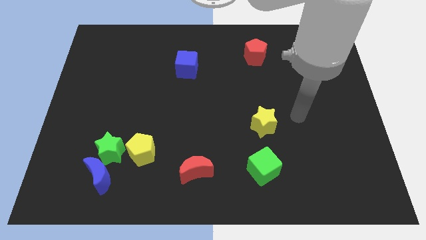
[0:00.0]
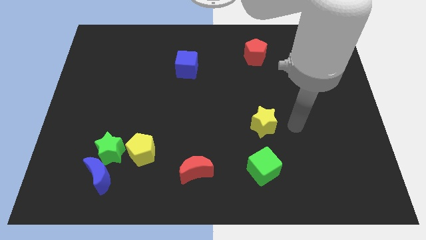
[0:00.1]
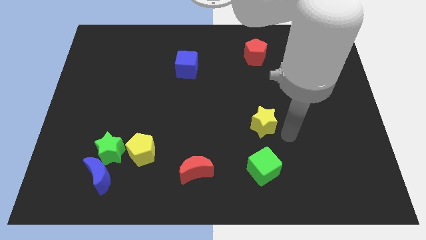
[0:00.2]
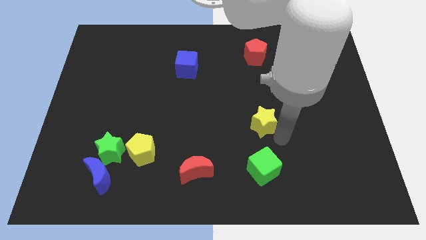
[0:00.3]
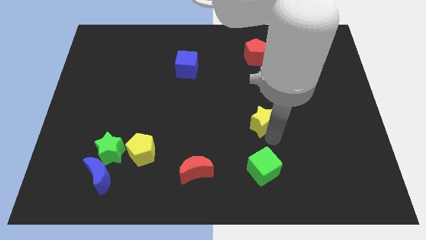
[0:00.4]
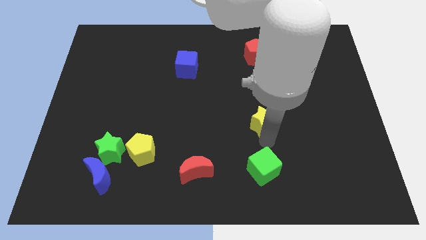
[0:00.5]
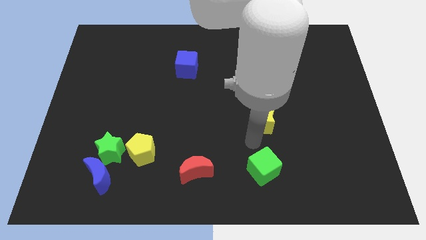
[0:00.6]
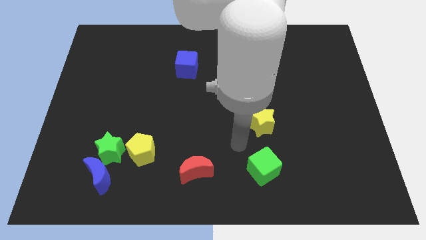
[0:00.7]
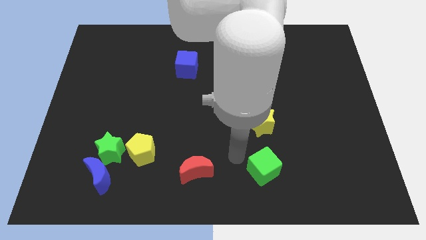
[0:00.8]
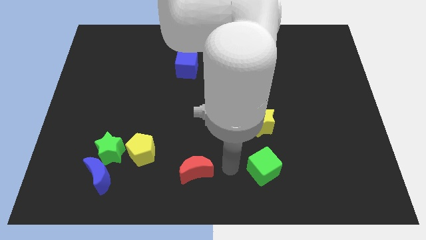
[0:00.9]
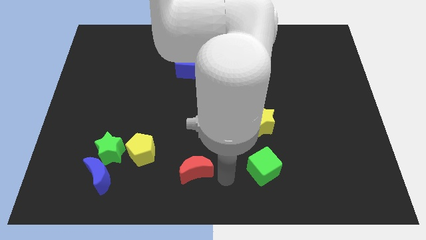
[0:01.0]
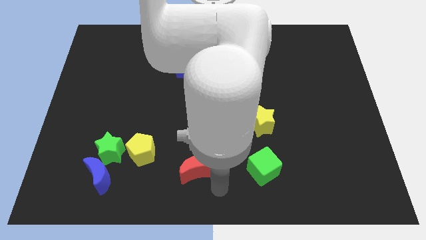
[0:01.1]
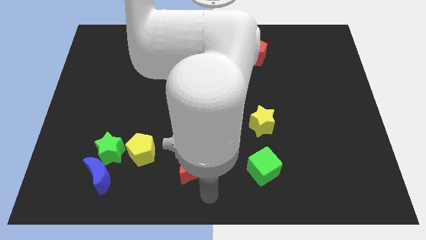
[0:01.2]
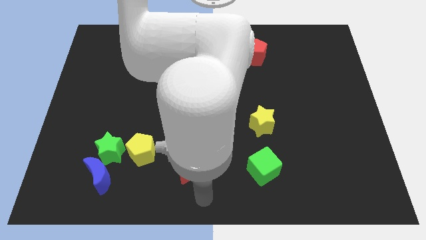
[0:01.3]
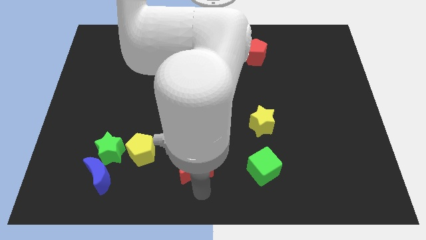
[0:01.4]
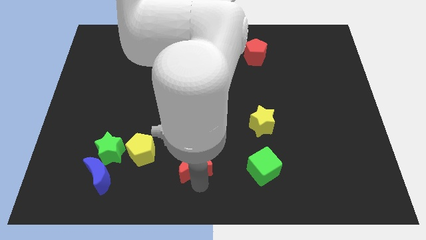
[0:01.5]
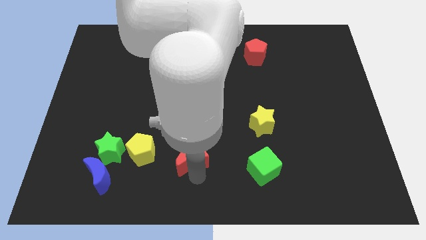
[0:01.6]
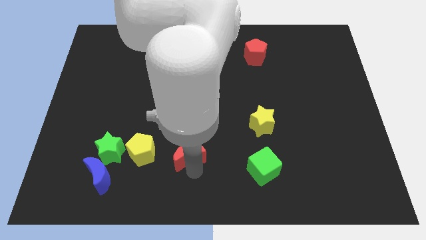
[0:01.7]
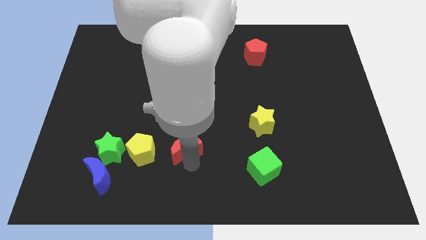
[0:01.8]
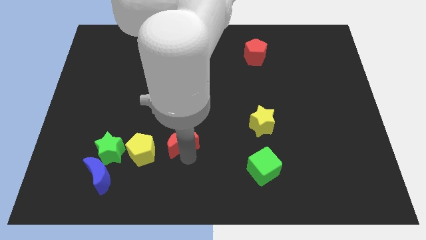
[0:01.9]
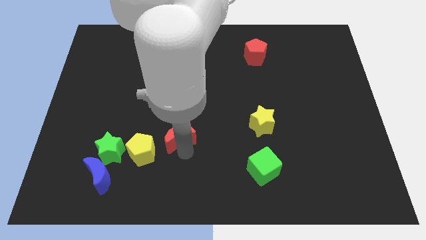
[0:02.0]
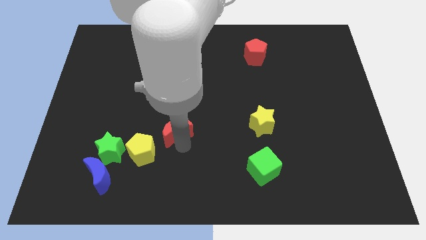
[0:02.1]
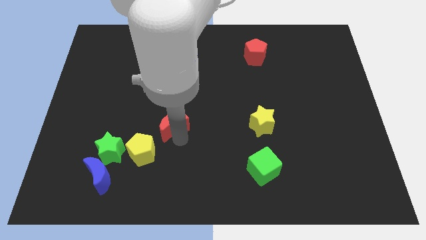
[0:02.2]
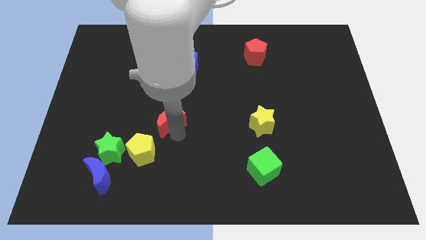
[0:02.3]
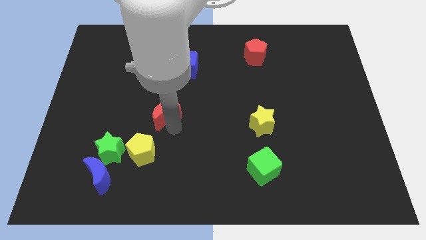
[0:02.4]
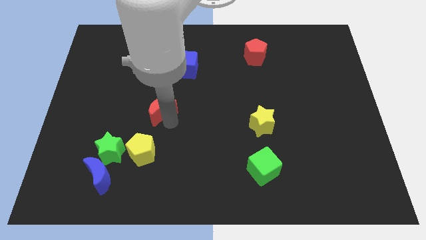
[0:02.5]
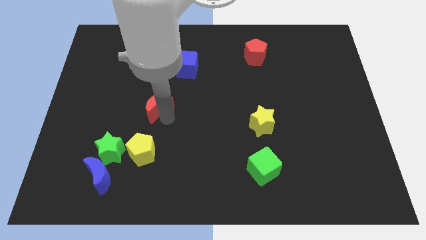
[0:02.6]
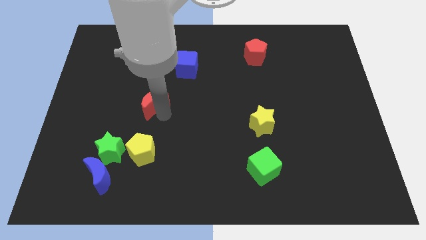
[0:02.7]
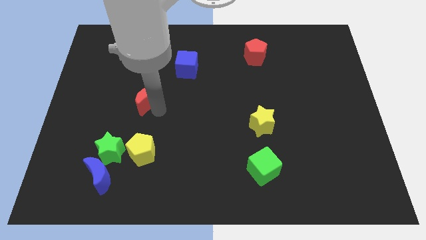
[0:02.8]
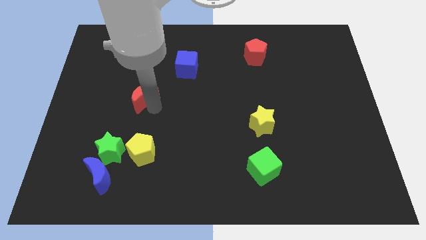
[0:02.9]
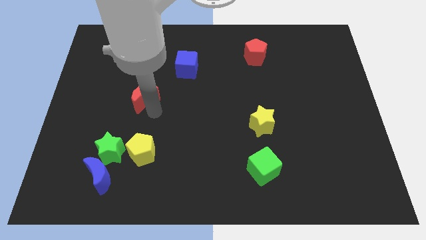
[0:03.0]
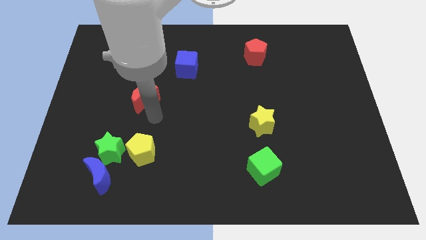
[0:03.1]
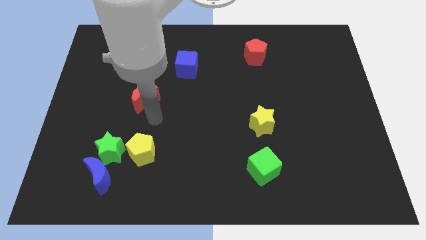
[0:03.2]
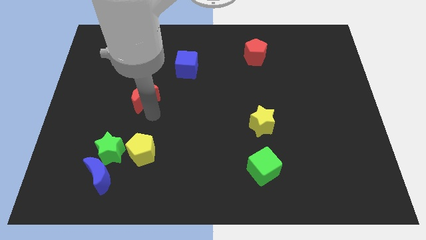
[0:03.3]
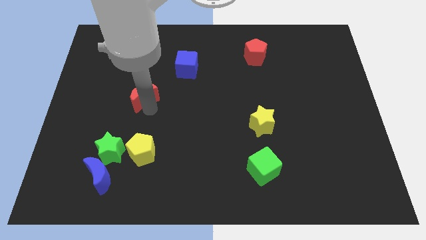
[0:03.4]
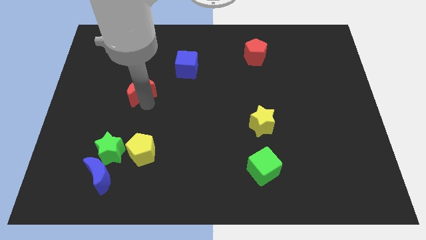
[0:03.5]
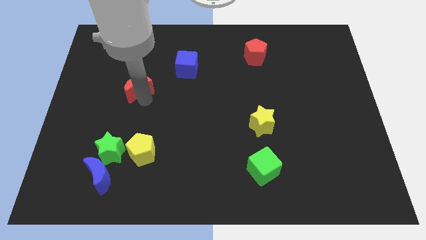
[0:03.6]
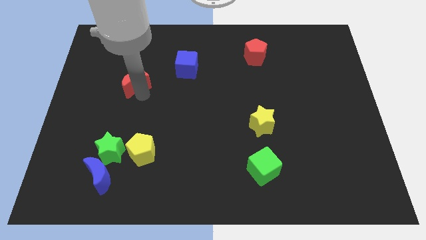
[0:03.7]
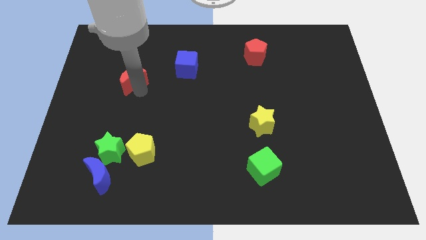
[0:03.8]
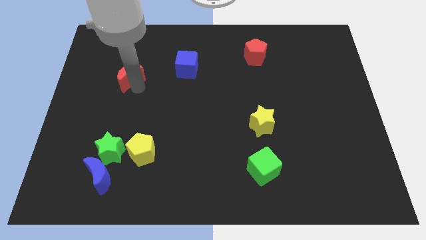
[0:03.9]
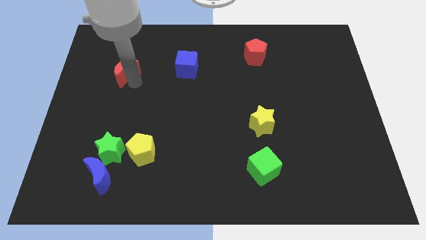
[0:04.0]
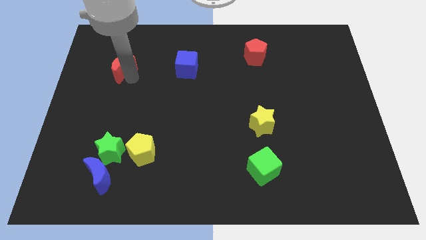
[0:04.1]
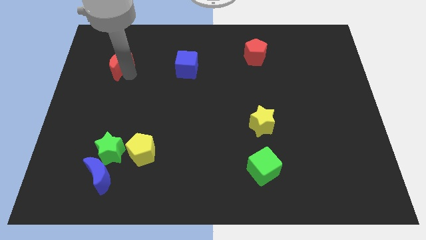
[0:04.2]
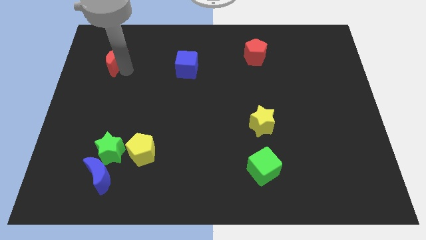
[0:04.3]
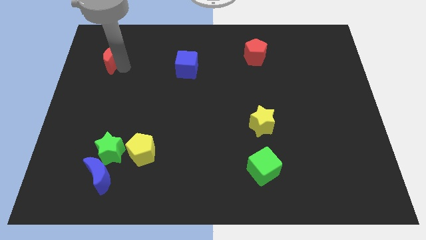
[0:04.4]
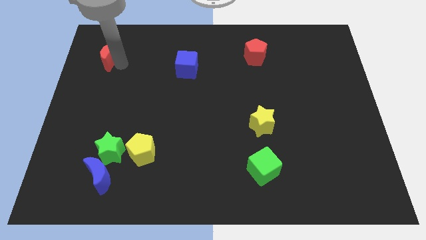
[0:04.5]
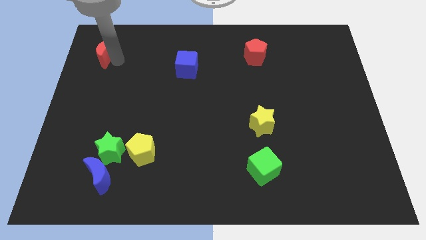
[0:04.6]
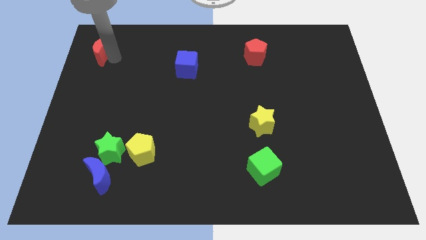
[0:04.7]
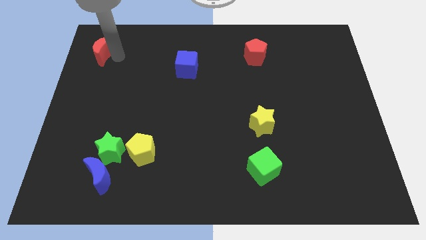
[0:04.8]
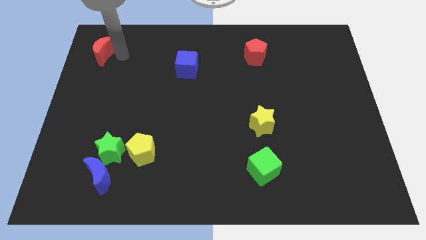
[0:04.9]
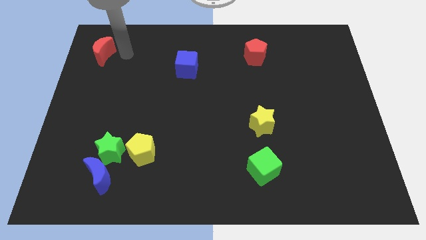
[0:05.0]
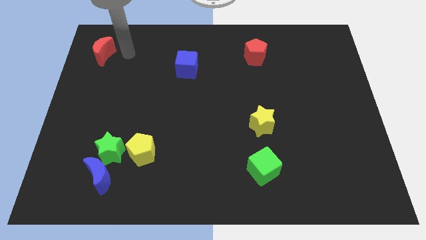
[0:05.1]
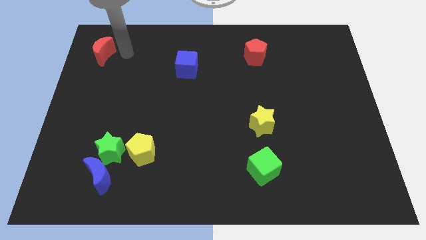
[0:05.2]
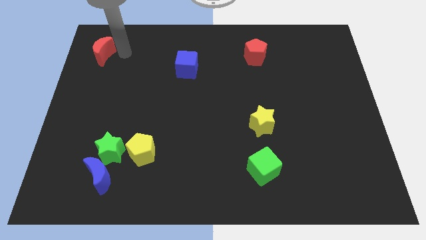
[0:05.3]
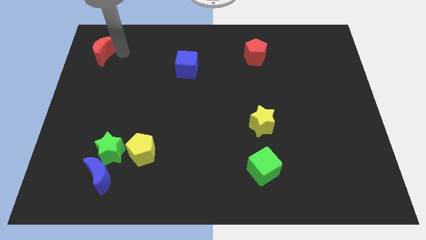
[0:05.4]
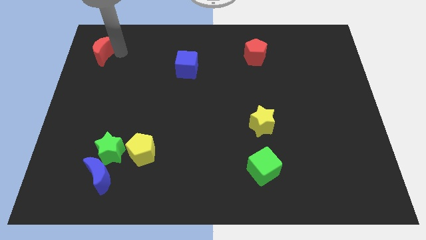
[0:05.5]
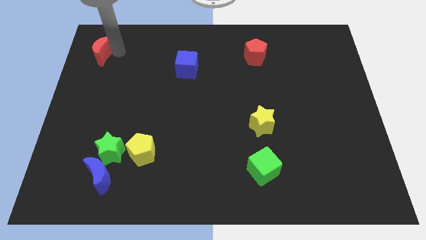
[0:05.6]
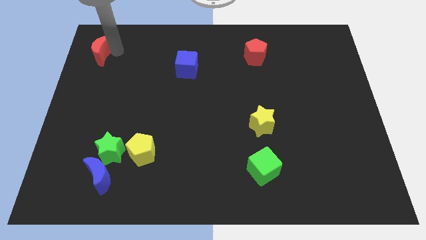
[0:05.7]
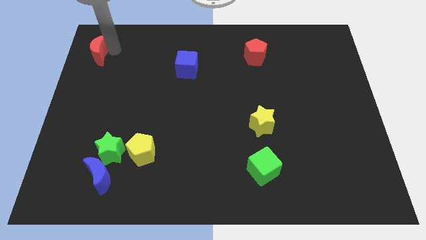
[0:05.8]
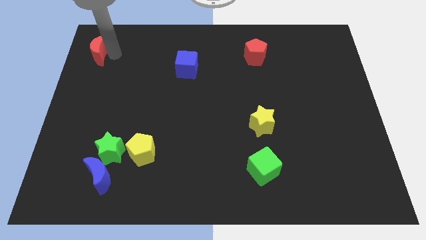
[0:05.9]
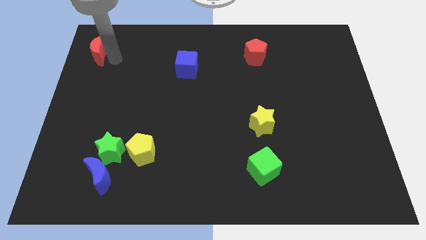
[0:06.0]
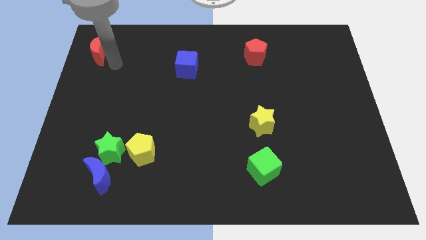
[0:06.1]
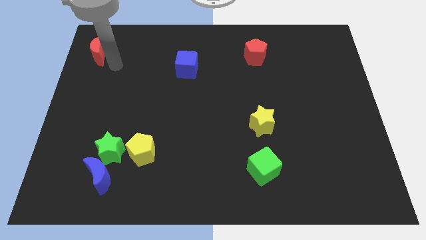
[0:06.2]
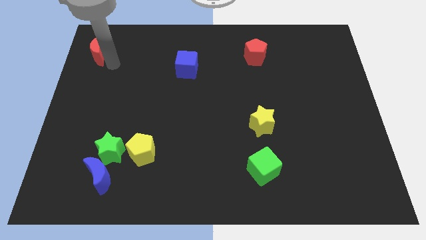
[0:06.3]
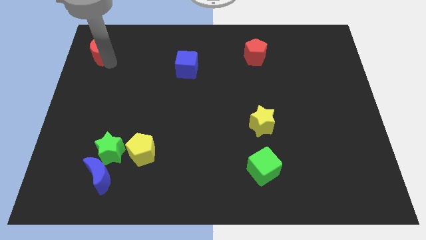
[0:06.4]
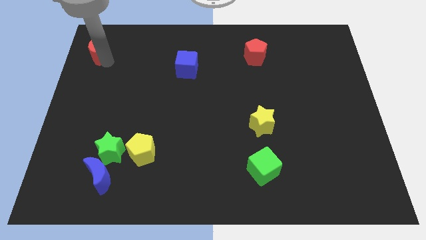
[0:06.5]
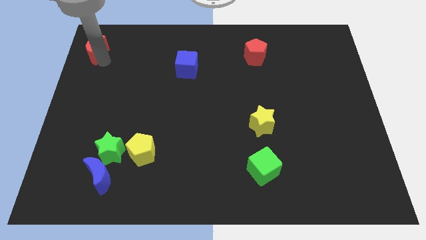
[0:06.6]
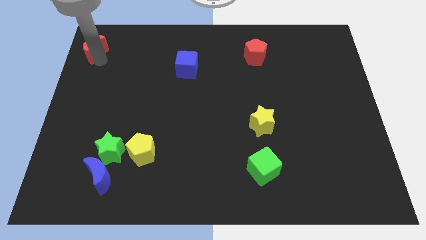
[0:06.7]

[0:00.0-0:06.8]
put the red moon to the top left of the board
